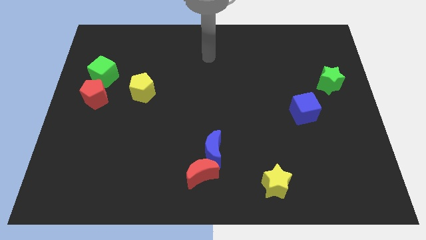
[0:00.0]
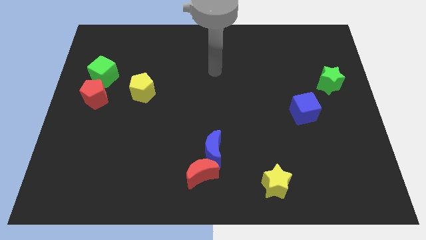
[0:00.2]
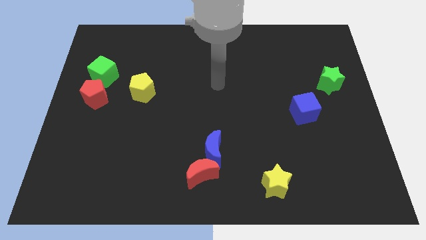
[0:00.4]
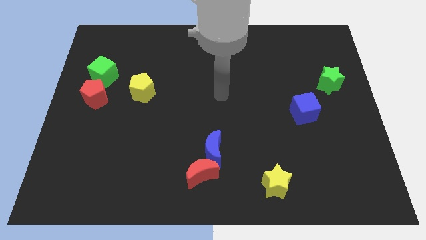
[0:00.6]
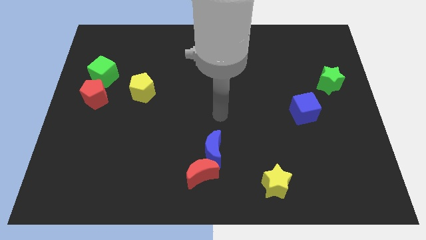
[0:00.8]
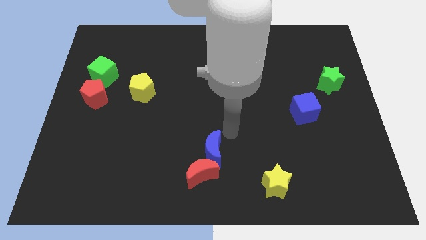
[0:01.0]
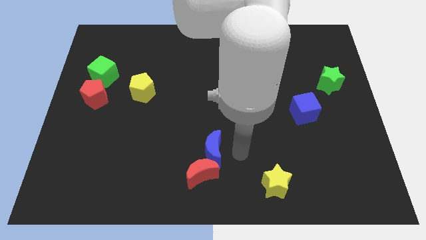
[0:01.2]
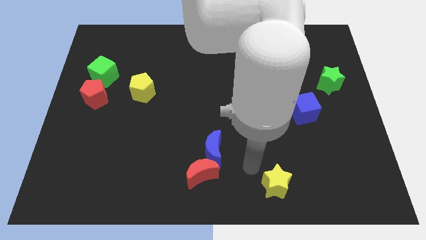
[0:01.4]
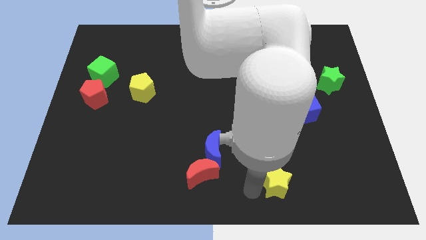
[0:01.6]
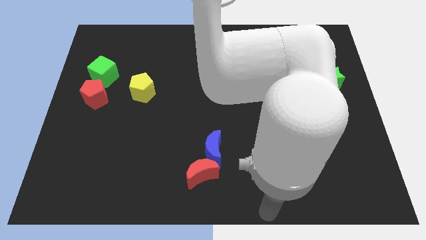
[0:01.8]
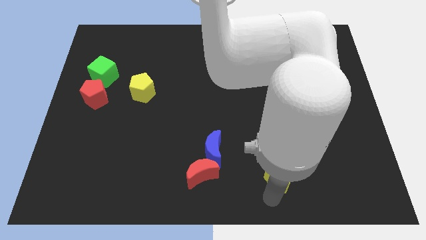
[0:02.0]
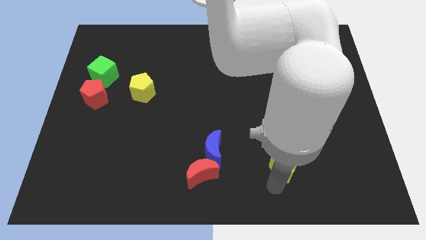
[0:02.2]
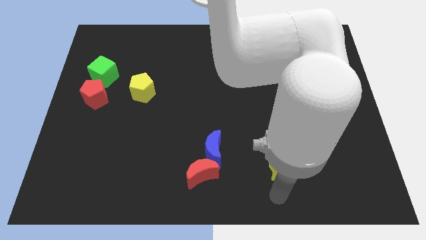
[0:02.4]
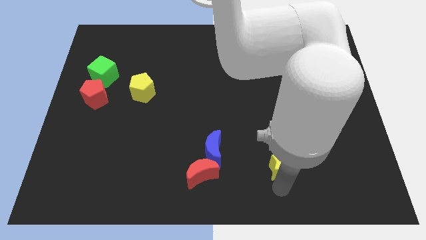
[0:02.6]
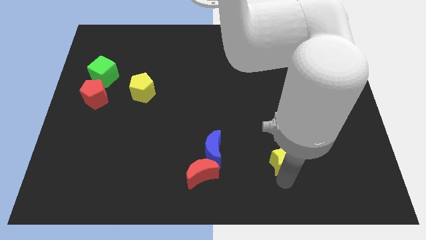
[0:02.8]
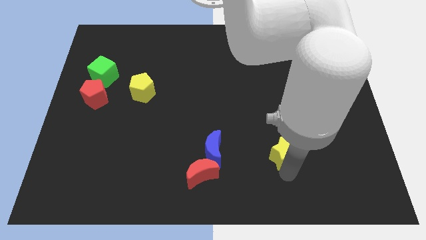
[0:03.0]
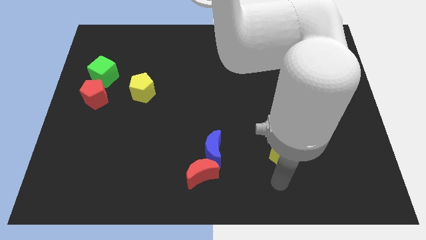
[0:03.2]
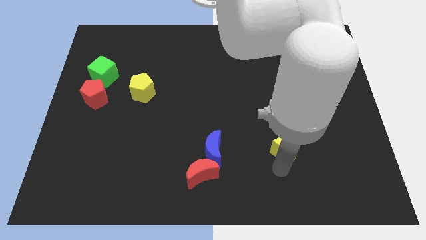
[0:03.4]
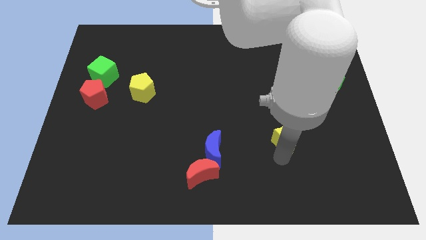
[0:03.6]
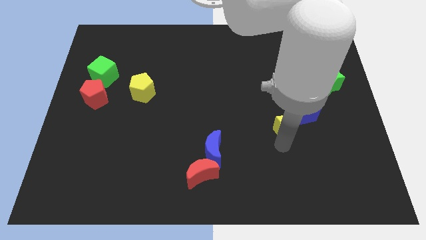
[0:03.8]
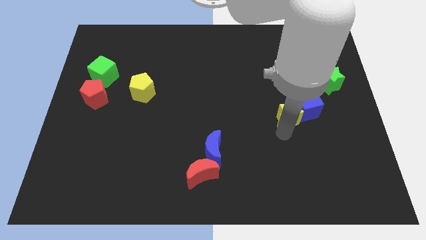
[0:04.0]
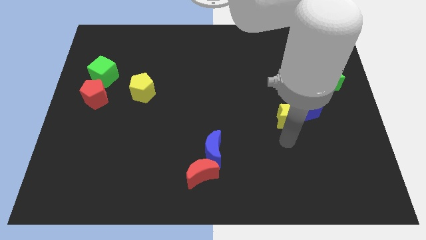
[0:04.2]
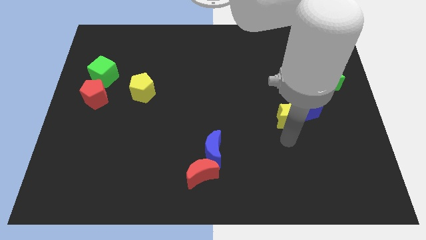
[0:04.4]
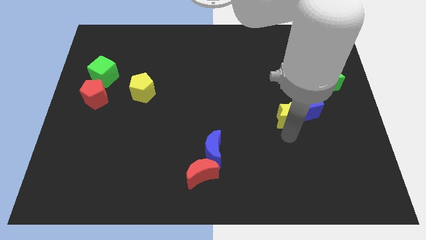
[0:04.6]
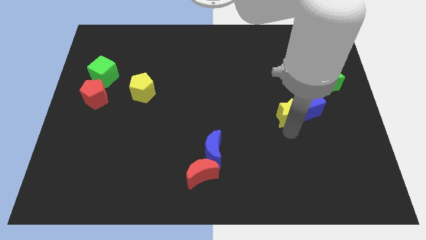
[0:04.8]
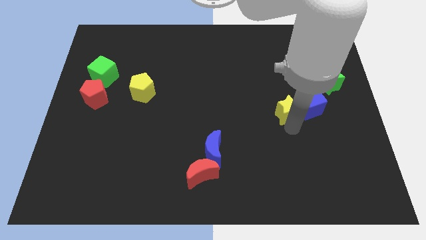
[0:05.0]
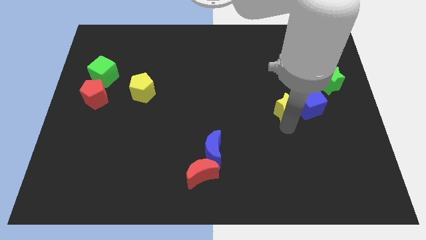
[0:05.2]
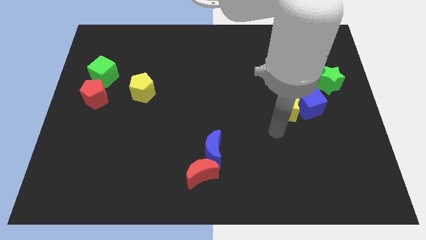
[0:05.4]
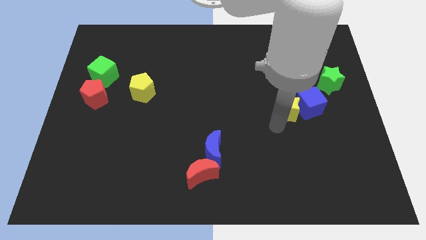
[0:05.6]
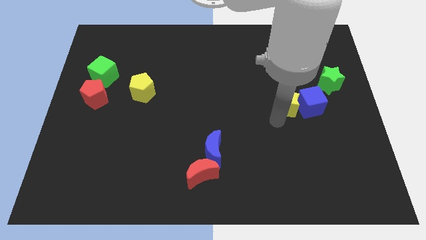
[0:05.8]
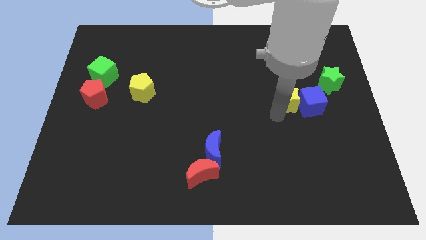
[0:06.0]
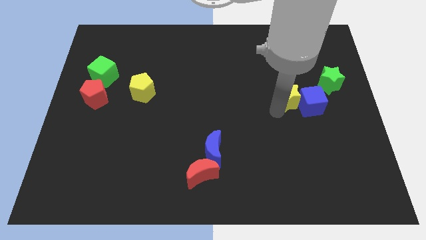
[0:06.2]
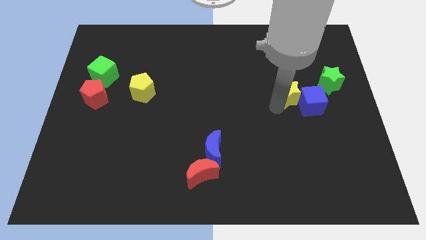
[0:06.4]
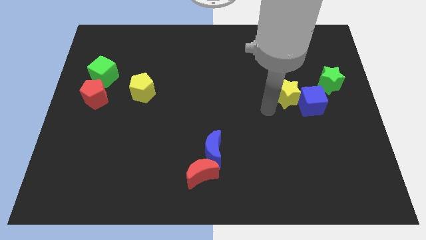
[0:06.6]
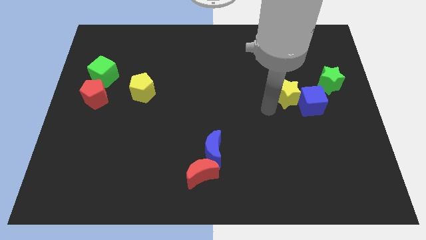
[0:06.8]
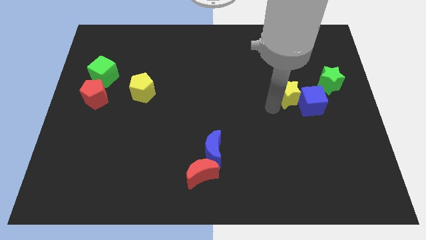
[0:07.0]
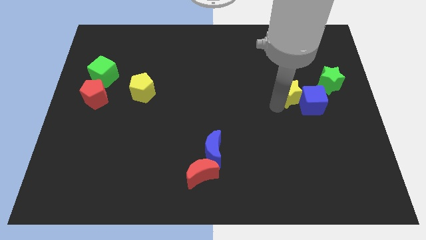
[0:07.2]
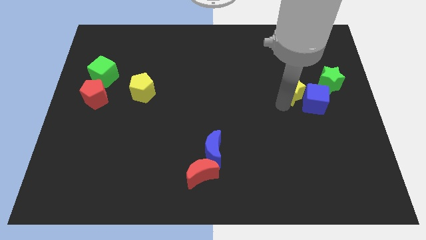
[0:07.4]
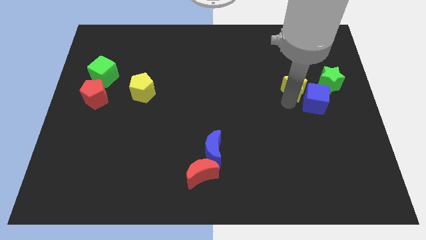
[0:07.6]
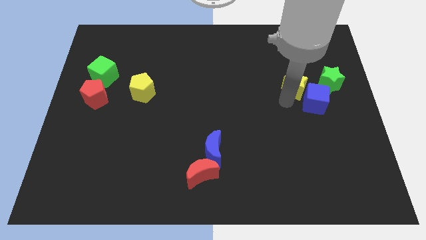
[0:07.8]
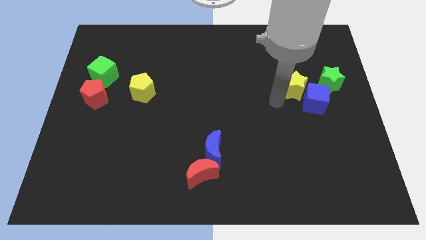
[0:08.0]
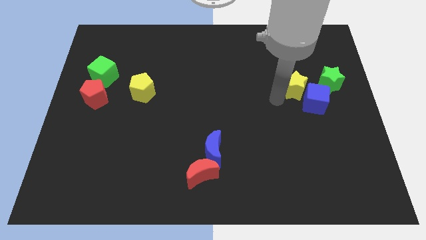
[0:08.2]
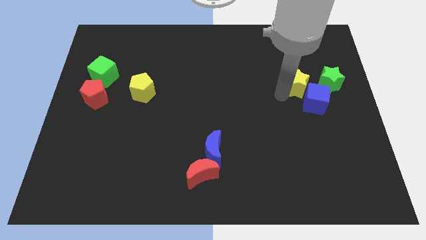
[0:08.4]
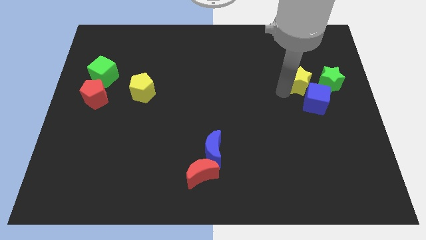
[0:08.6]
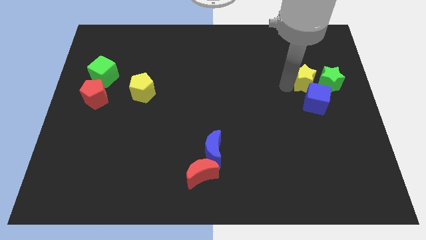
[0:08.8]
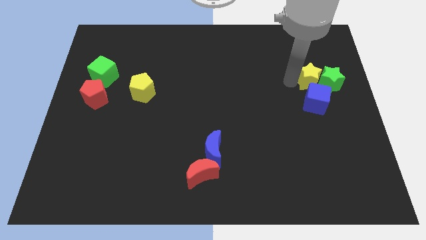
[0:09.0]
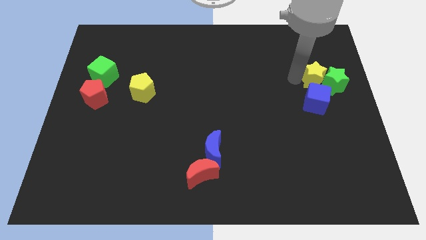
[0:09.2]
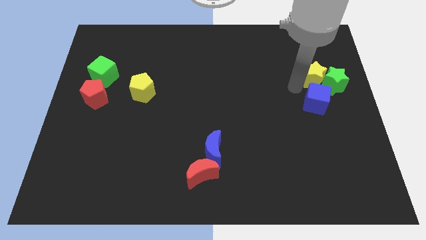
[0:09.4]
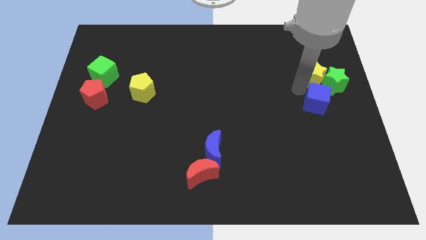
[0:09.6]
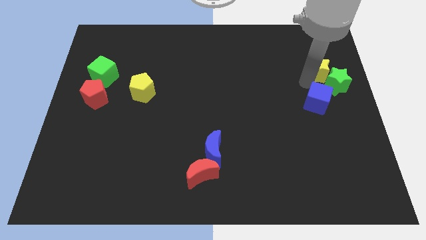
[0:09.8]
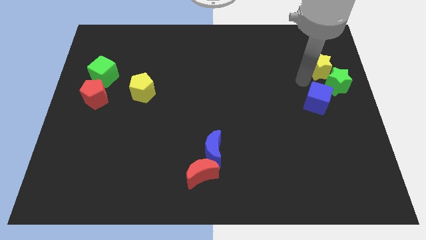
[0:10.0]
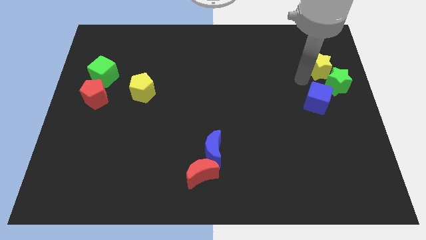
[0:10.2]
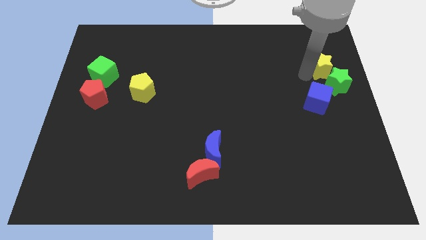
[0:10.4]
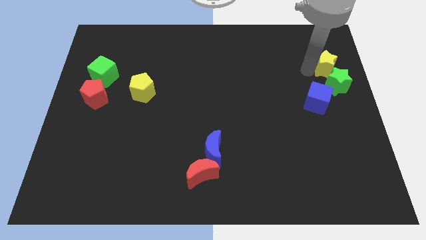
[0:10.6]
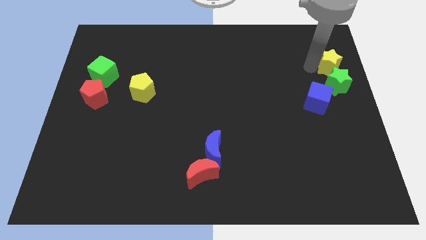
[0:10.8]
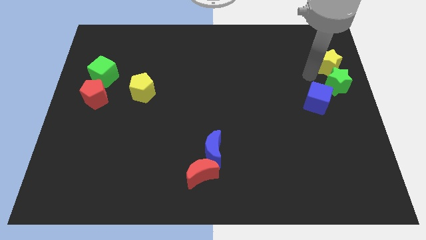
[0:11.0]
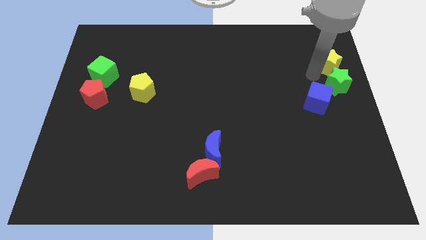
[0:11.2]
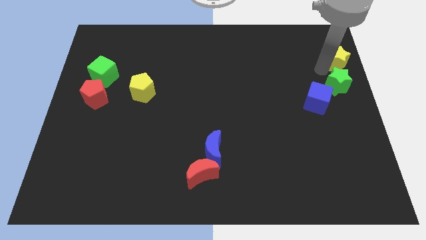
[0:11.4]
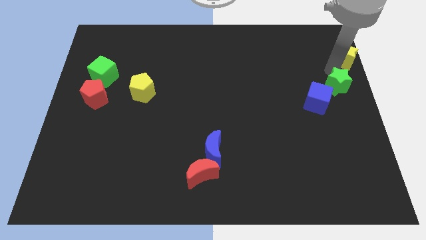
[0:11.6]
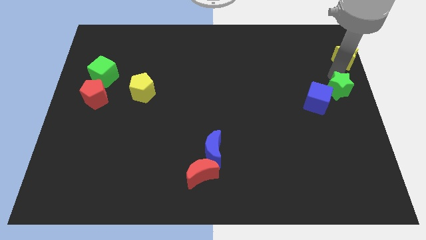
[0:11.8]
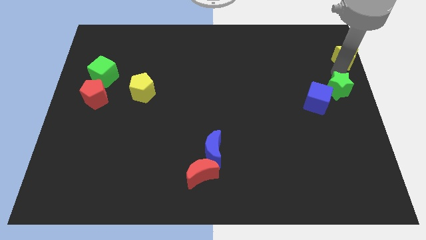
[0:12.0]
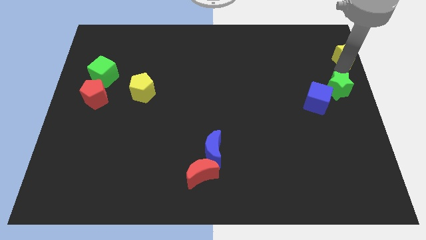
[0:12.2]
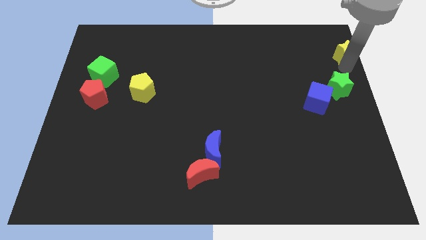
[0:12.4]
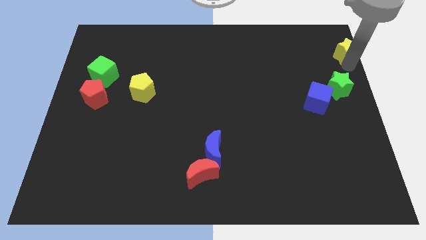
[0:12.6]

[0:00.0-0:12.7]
slide the yellow star to the upper right corner

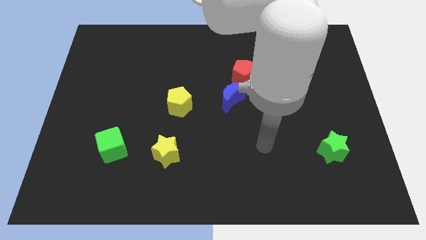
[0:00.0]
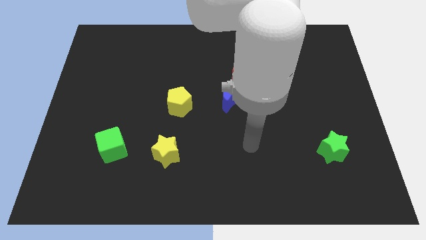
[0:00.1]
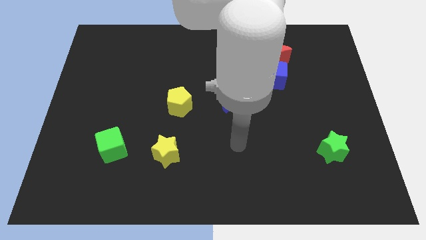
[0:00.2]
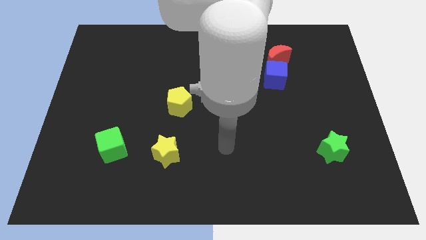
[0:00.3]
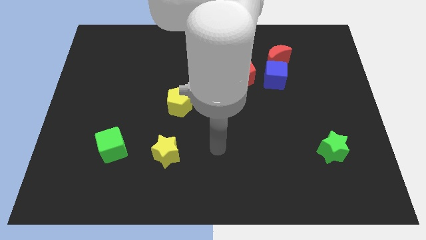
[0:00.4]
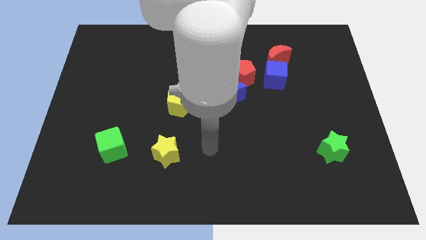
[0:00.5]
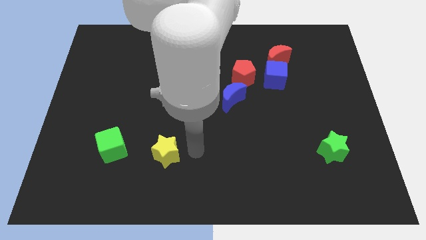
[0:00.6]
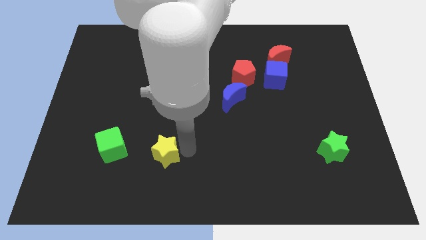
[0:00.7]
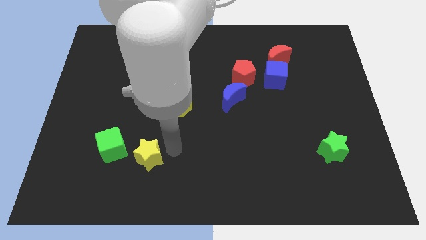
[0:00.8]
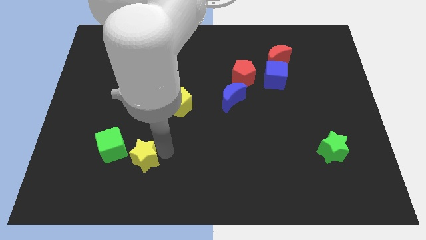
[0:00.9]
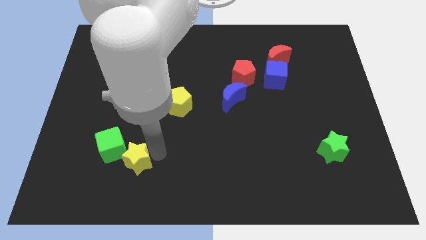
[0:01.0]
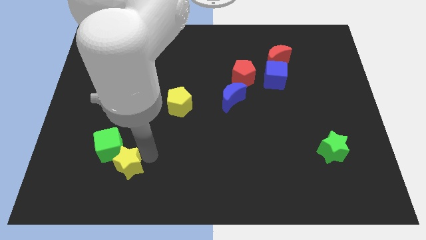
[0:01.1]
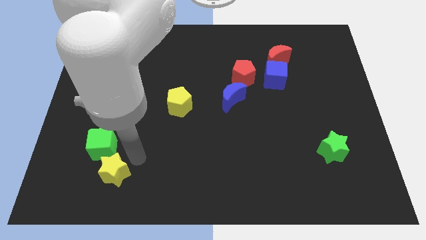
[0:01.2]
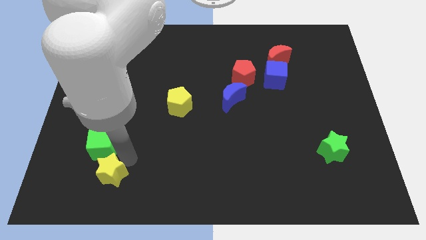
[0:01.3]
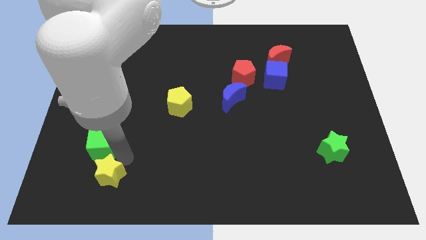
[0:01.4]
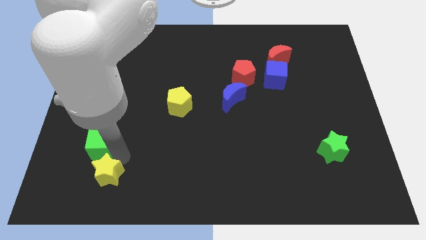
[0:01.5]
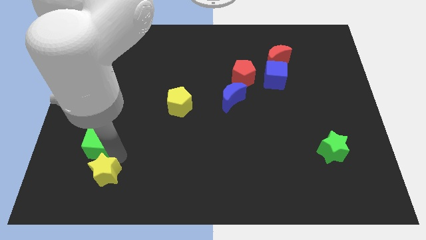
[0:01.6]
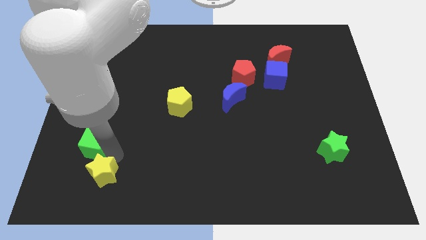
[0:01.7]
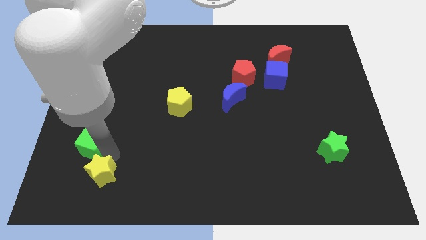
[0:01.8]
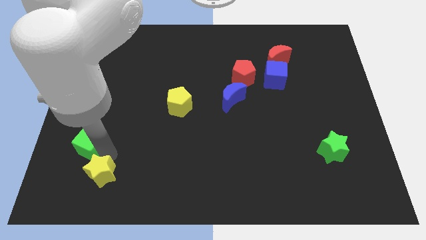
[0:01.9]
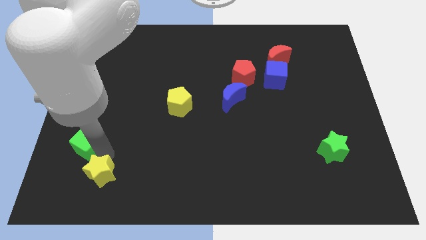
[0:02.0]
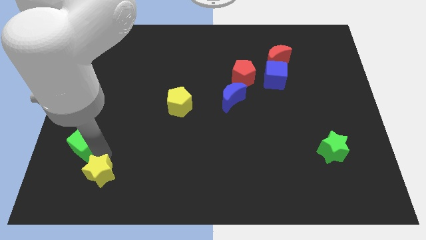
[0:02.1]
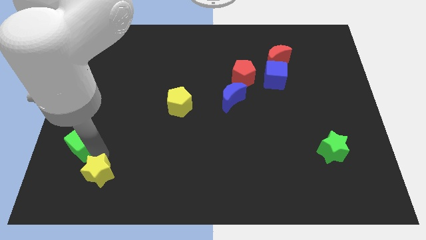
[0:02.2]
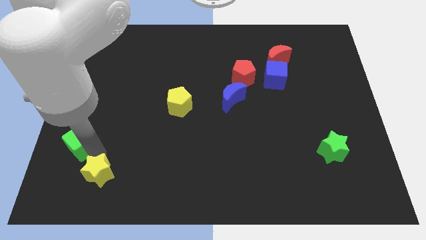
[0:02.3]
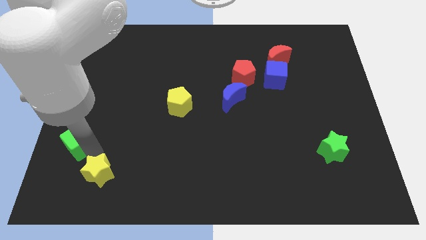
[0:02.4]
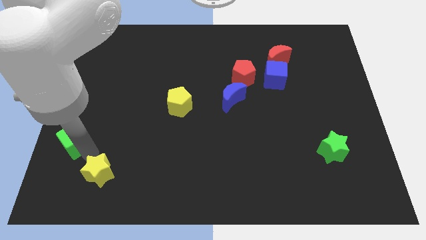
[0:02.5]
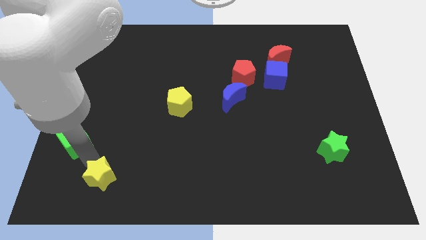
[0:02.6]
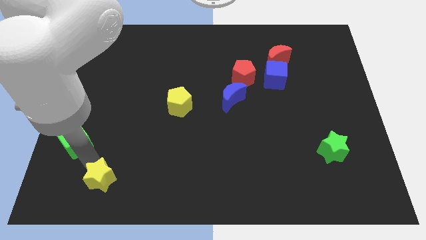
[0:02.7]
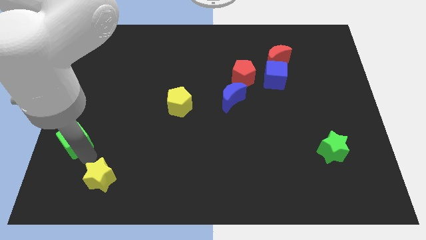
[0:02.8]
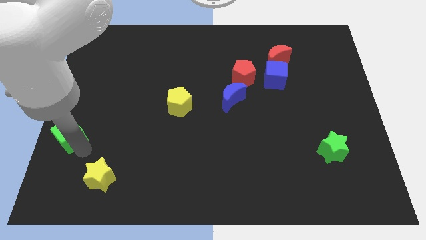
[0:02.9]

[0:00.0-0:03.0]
put the green cube to the left side of the board
